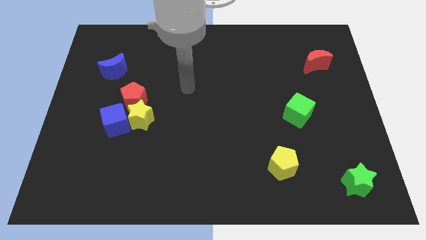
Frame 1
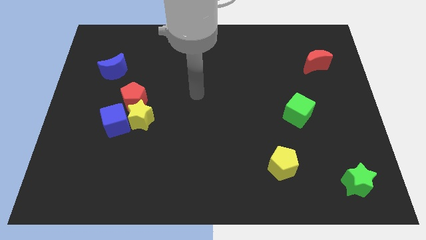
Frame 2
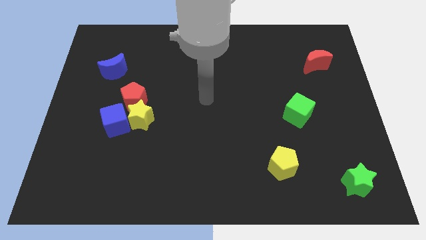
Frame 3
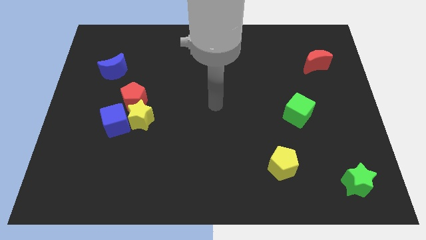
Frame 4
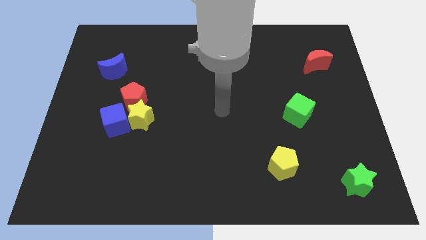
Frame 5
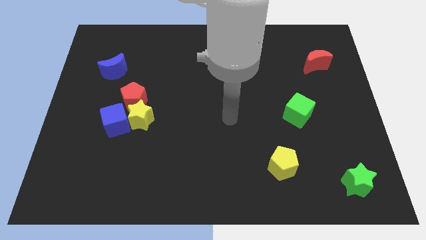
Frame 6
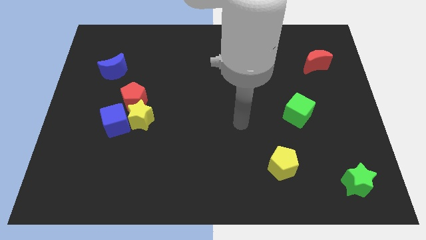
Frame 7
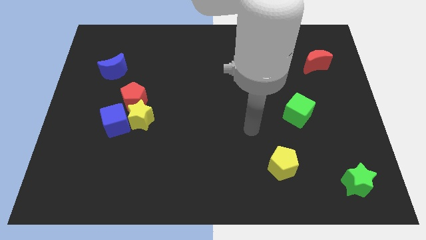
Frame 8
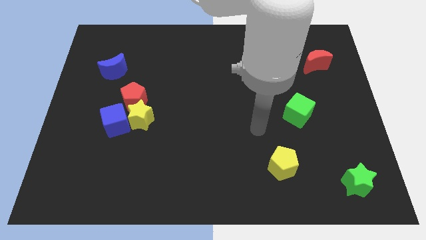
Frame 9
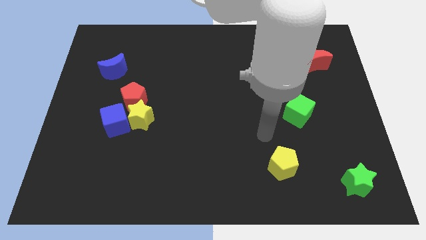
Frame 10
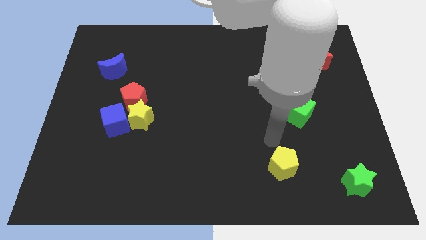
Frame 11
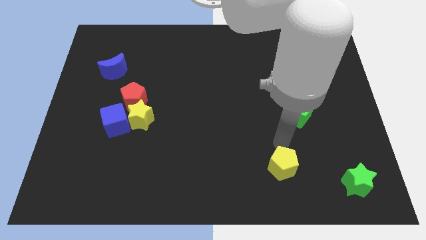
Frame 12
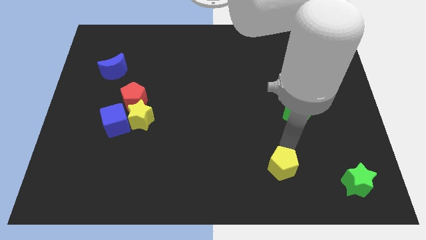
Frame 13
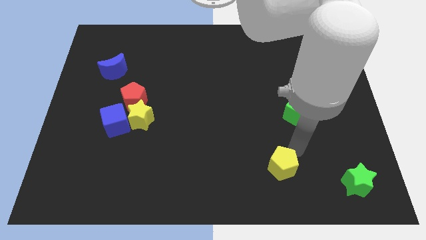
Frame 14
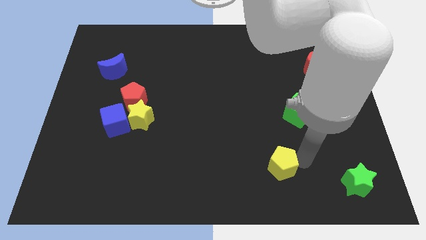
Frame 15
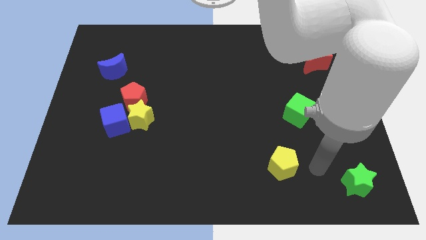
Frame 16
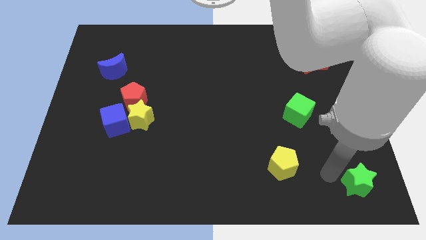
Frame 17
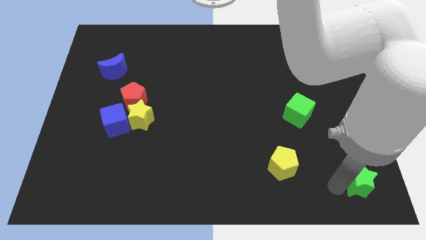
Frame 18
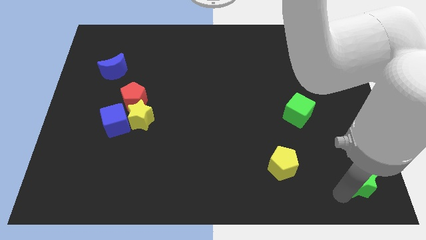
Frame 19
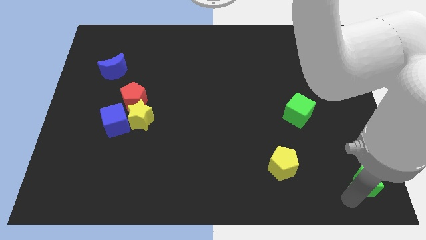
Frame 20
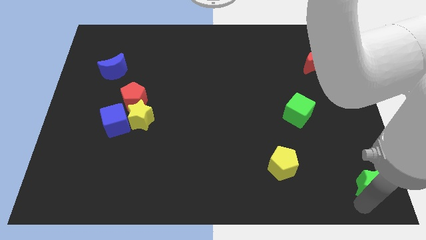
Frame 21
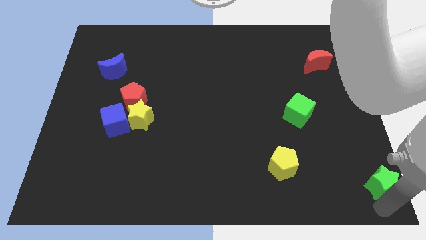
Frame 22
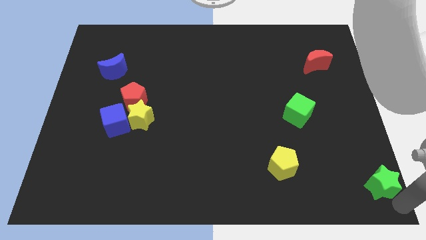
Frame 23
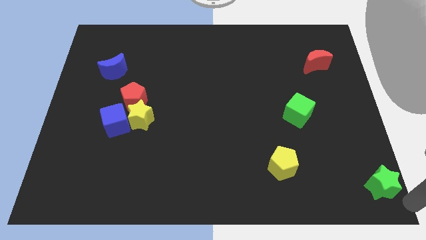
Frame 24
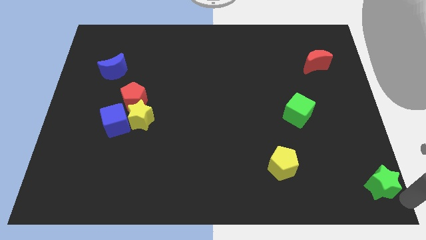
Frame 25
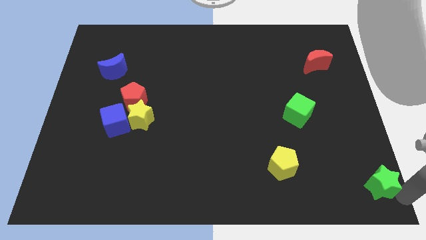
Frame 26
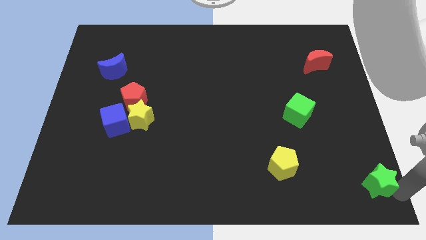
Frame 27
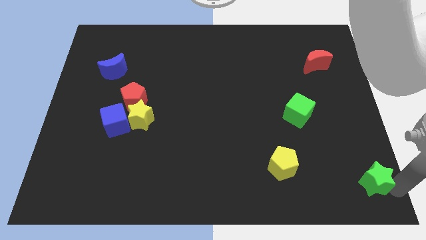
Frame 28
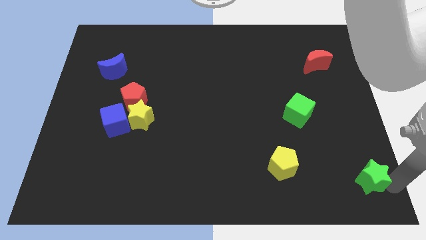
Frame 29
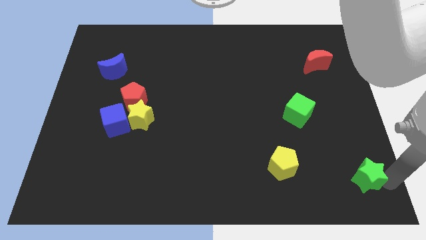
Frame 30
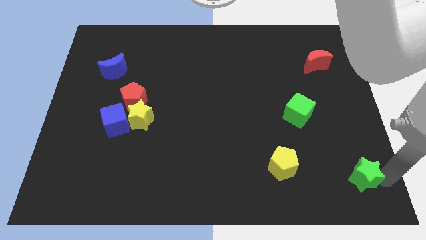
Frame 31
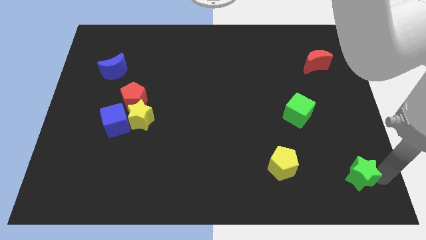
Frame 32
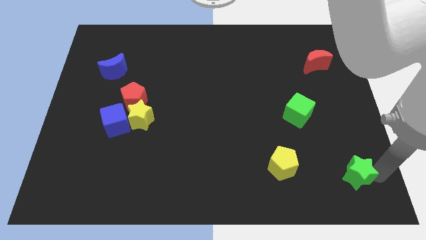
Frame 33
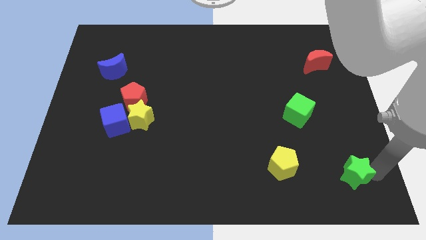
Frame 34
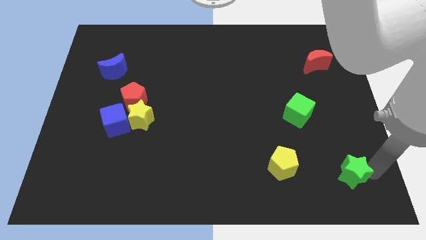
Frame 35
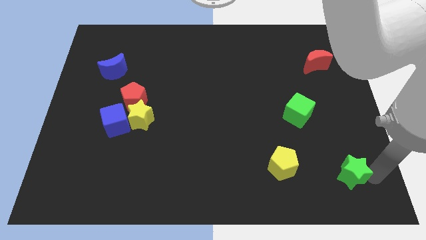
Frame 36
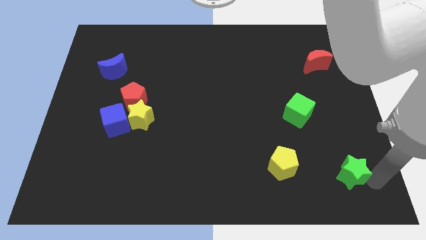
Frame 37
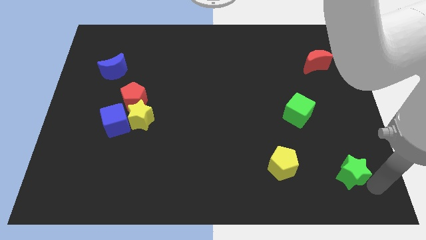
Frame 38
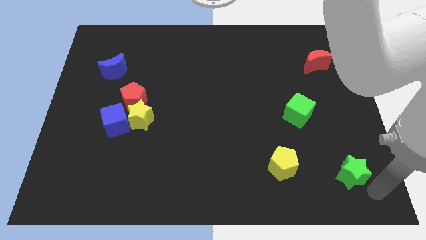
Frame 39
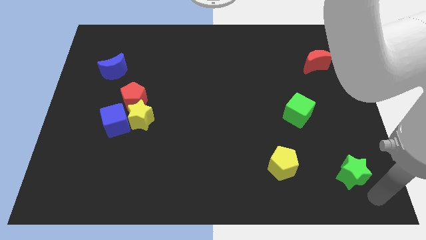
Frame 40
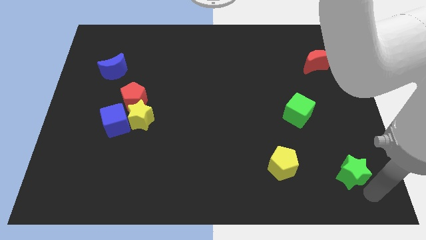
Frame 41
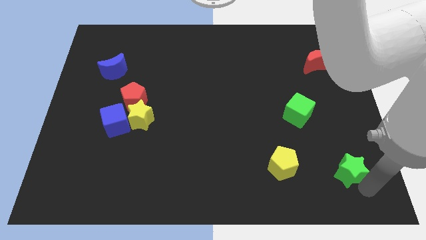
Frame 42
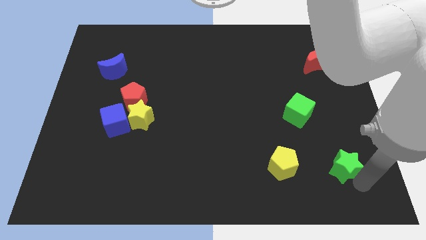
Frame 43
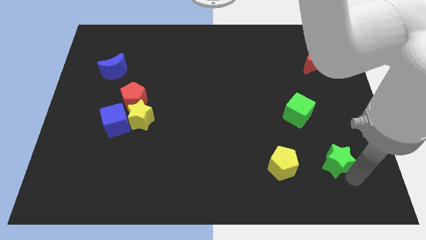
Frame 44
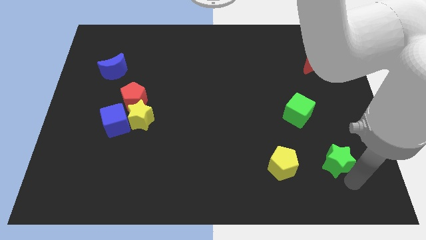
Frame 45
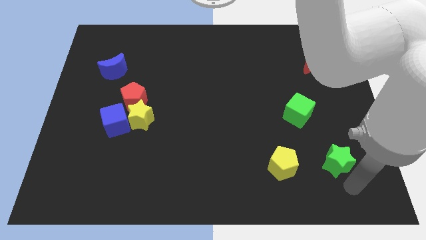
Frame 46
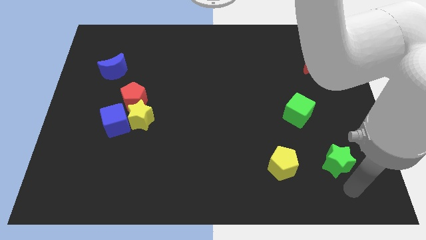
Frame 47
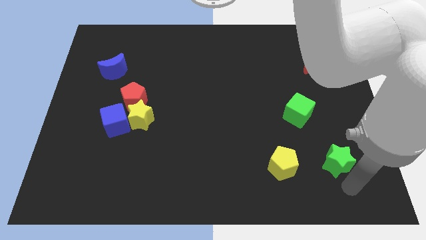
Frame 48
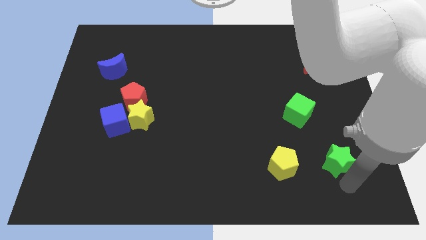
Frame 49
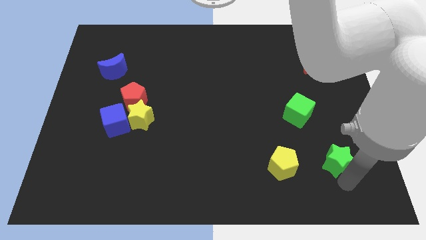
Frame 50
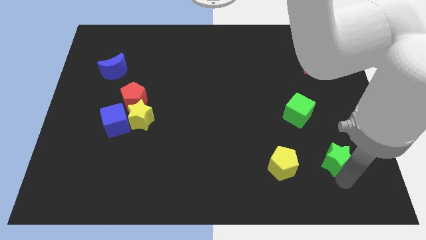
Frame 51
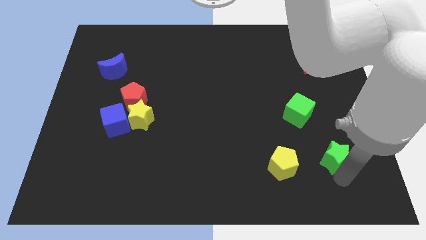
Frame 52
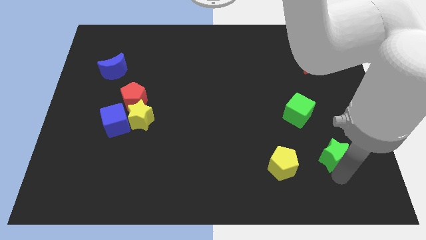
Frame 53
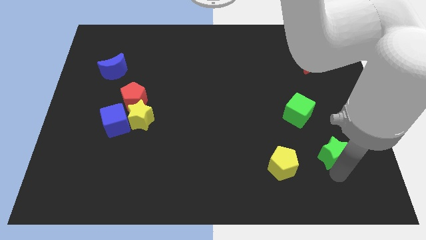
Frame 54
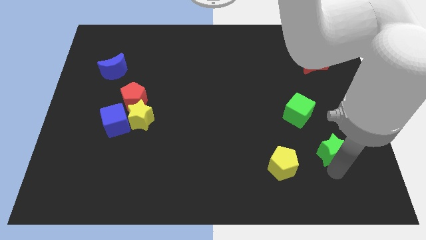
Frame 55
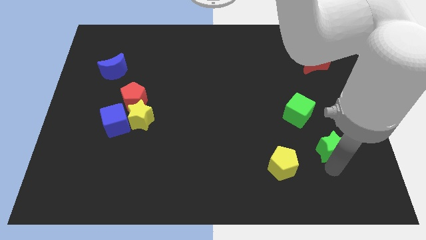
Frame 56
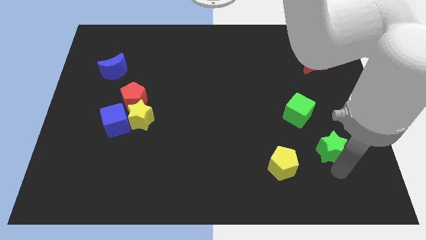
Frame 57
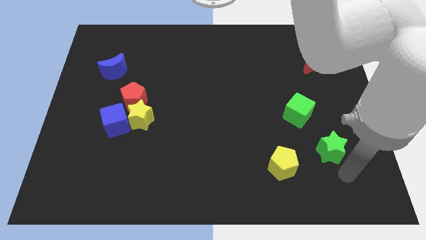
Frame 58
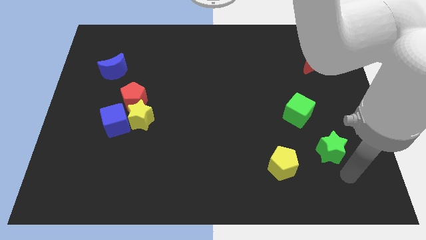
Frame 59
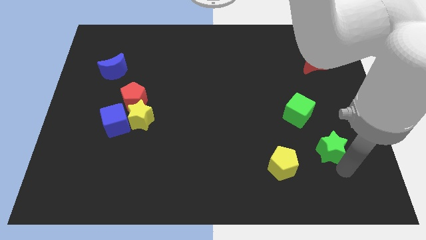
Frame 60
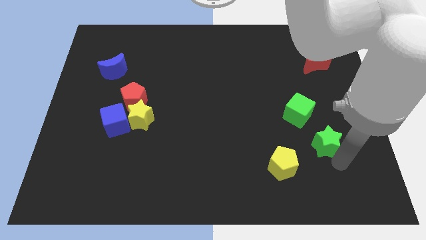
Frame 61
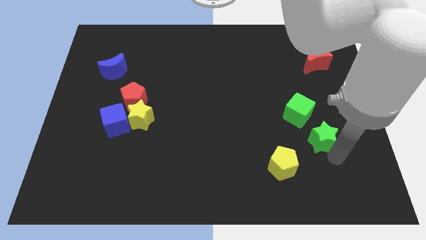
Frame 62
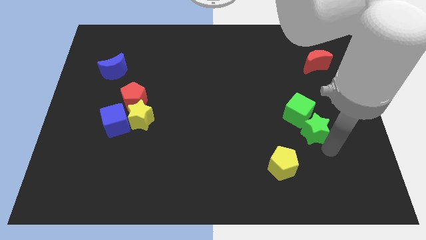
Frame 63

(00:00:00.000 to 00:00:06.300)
put the green star next to the green cube

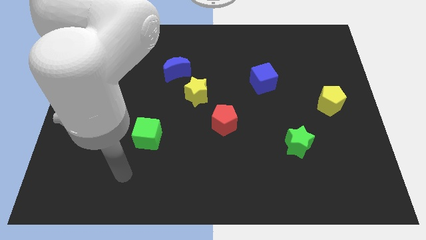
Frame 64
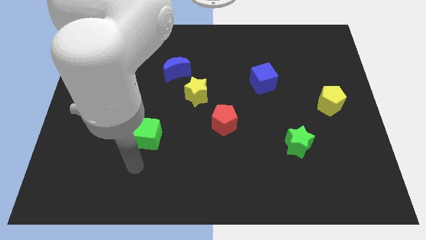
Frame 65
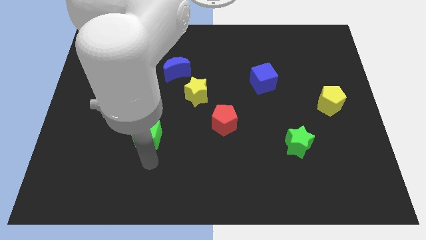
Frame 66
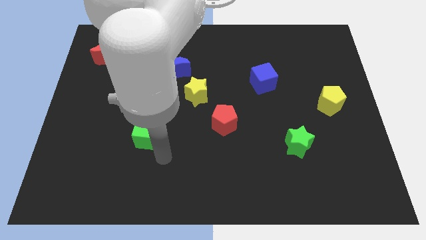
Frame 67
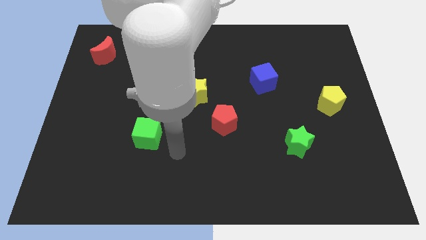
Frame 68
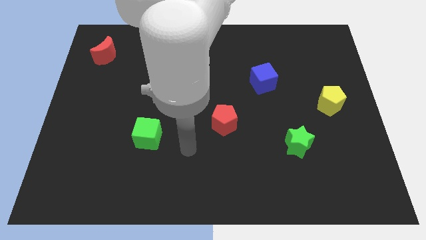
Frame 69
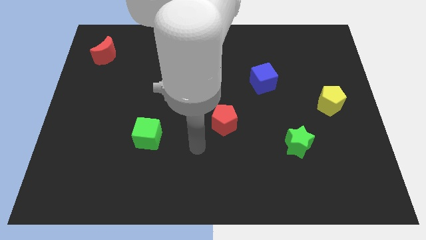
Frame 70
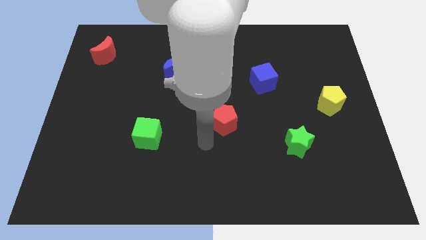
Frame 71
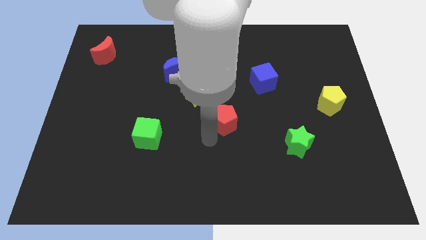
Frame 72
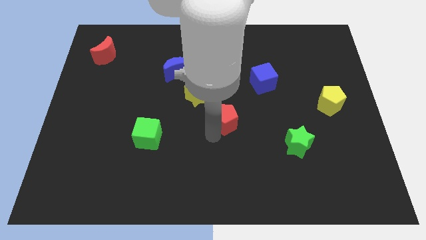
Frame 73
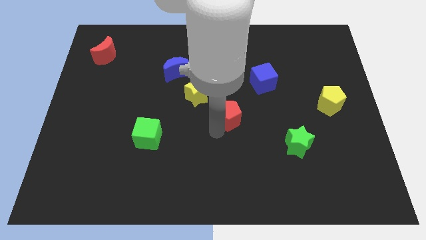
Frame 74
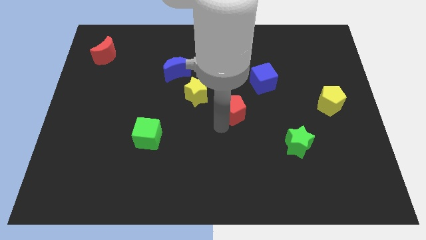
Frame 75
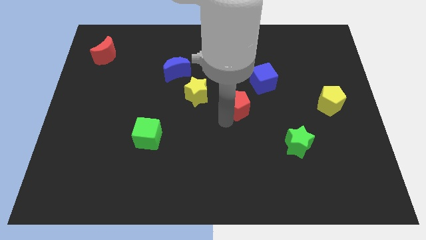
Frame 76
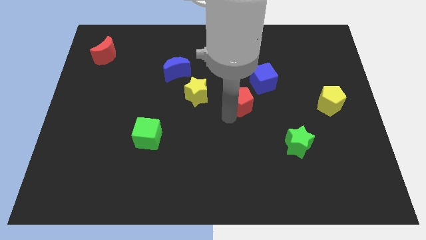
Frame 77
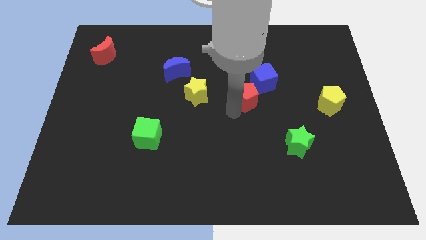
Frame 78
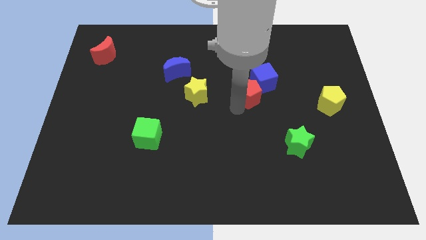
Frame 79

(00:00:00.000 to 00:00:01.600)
move the red pentagon next to the blue cube
